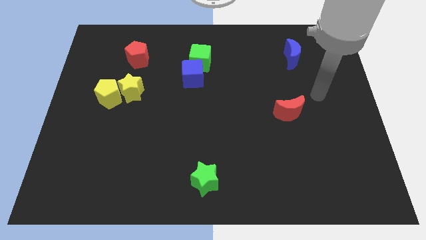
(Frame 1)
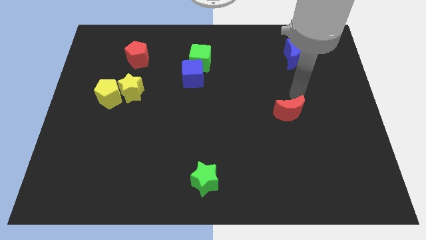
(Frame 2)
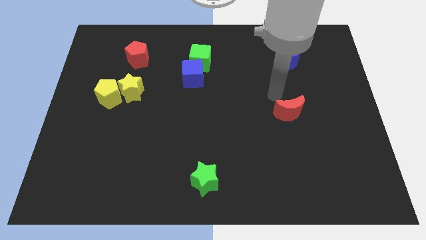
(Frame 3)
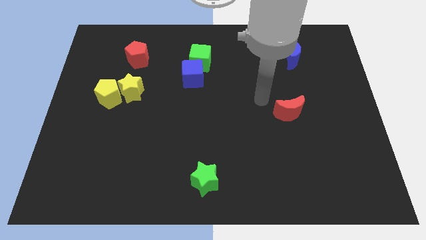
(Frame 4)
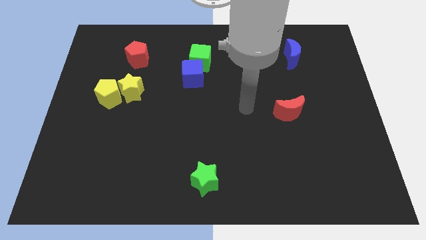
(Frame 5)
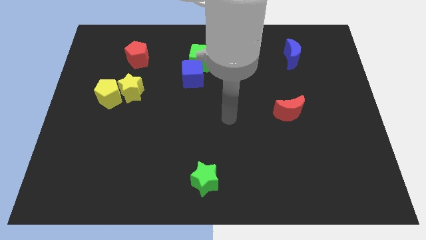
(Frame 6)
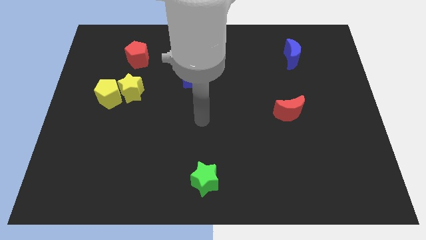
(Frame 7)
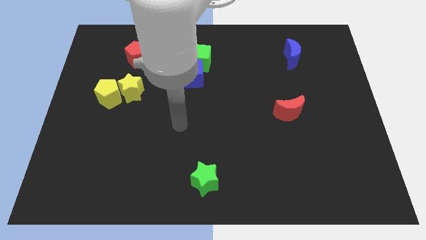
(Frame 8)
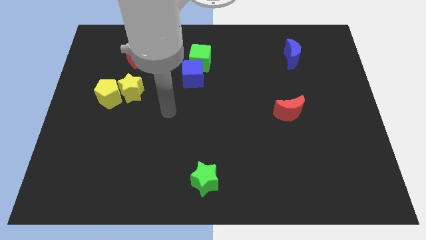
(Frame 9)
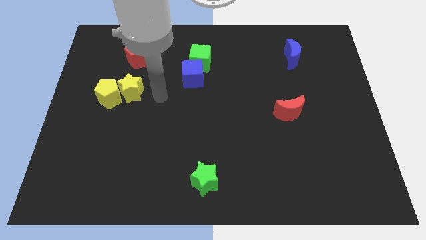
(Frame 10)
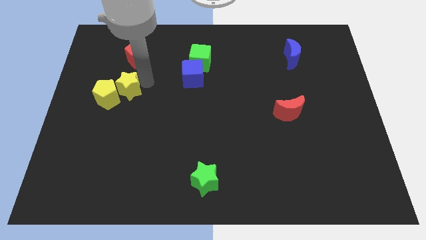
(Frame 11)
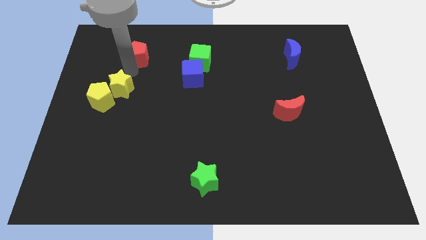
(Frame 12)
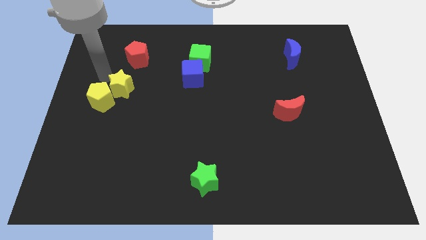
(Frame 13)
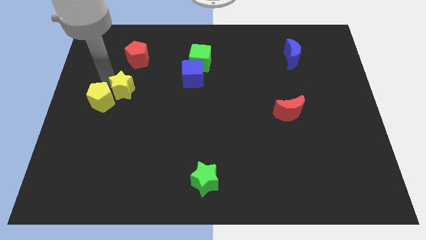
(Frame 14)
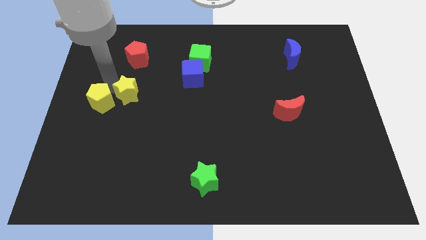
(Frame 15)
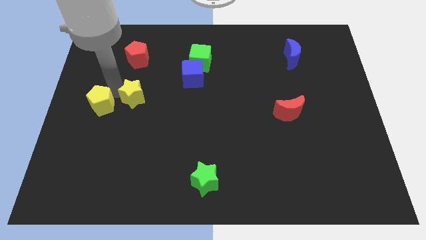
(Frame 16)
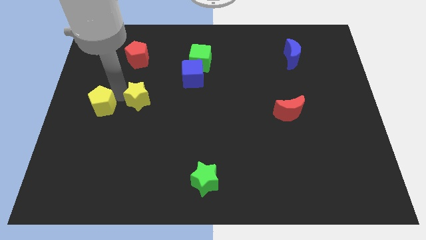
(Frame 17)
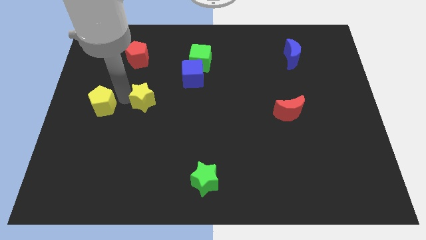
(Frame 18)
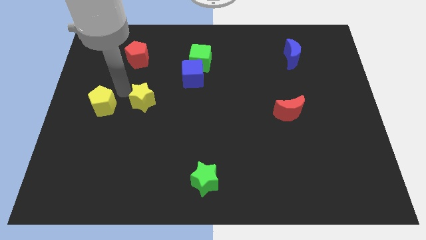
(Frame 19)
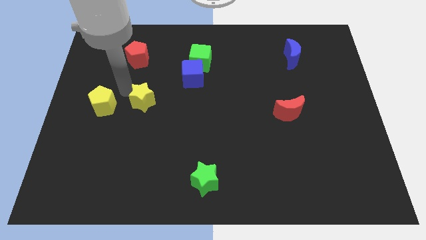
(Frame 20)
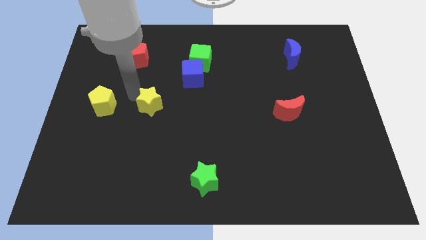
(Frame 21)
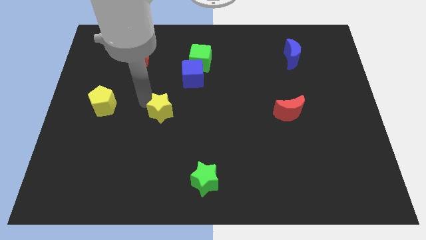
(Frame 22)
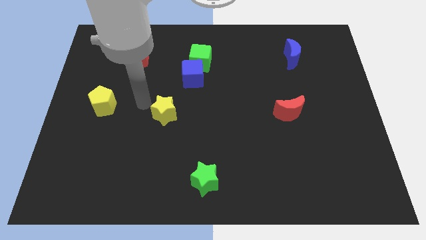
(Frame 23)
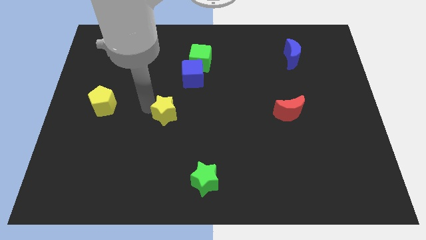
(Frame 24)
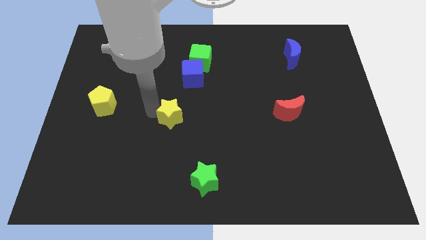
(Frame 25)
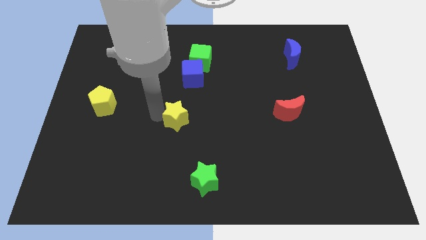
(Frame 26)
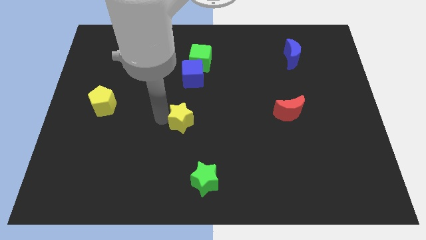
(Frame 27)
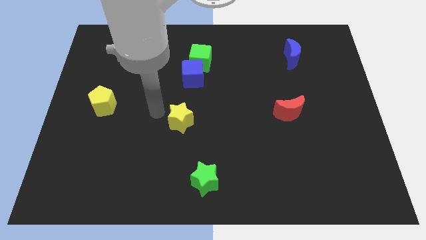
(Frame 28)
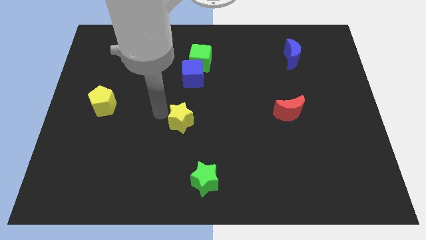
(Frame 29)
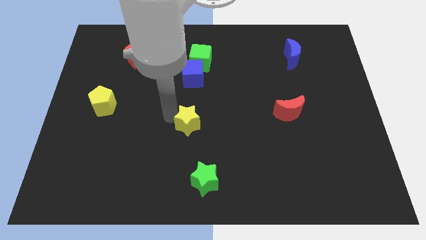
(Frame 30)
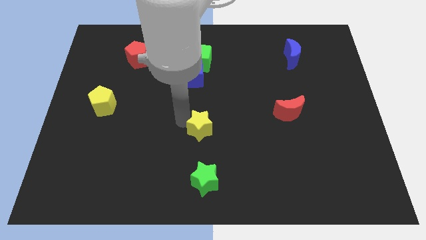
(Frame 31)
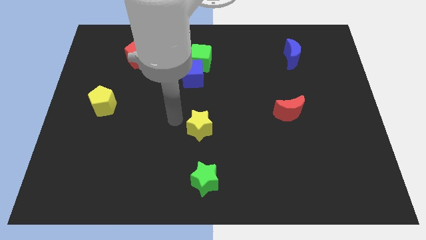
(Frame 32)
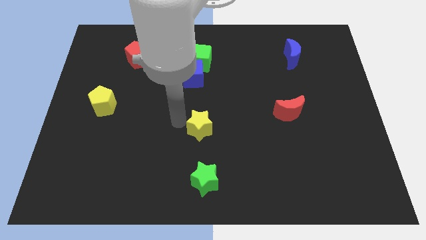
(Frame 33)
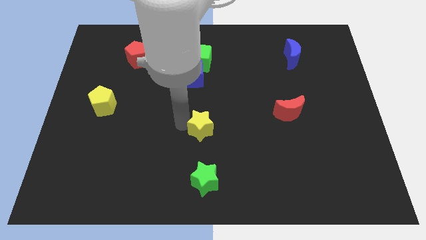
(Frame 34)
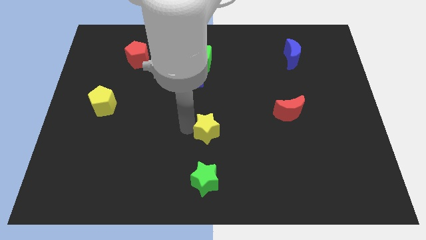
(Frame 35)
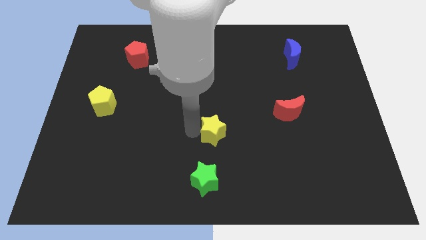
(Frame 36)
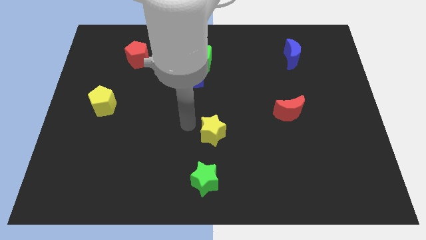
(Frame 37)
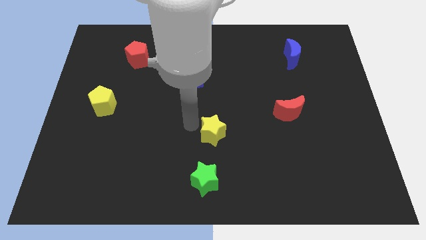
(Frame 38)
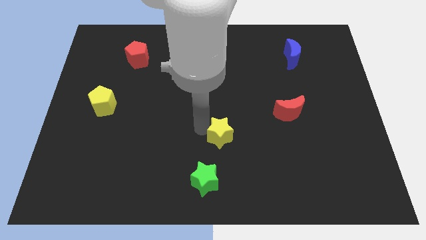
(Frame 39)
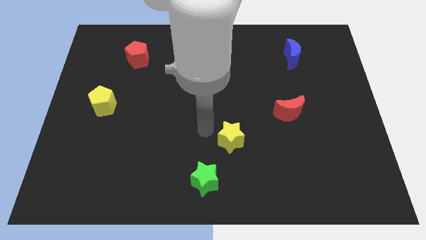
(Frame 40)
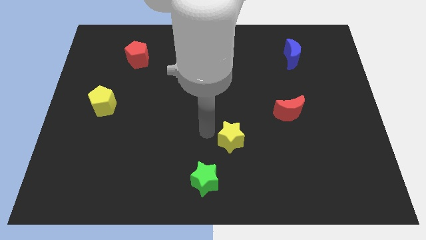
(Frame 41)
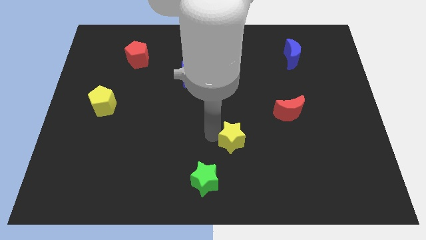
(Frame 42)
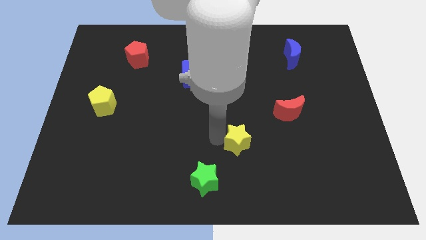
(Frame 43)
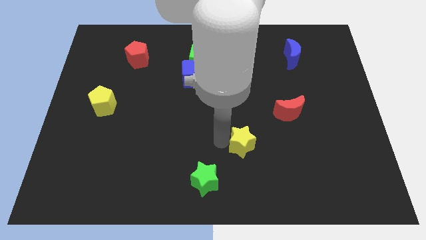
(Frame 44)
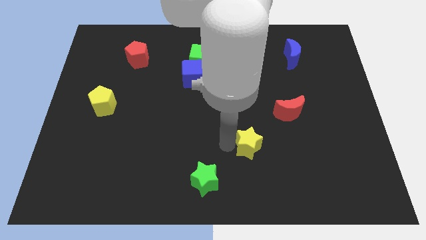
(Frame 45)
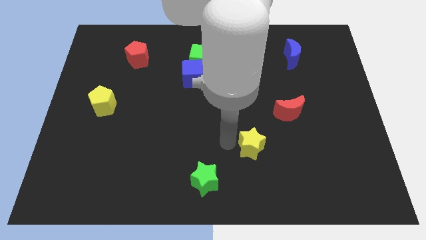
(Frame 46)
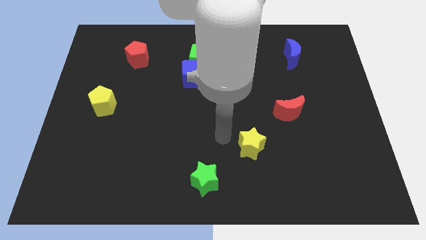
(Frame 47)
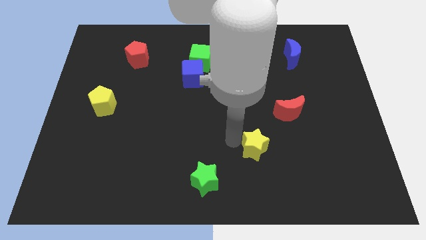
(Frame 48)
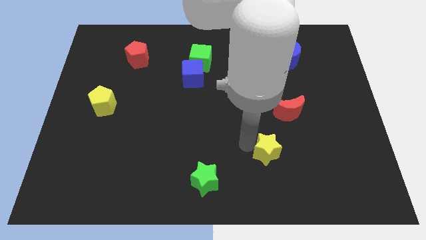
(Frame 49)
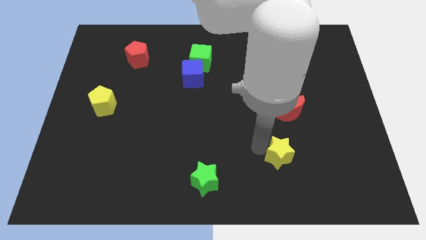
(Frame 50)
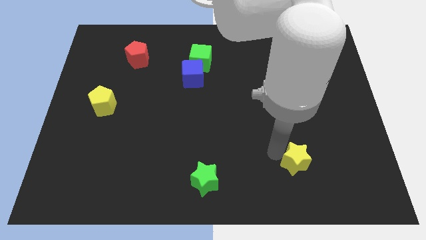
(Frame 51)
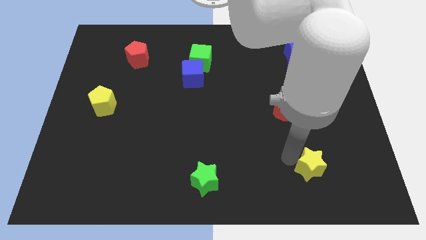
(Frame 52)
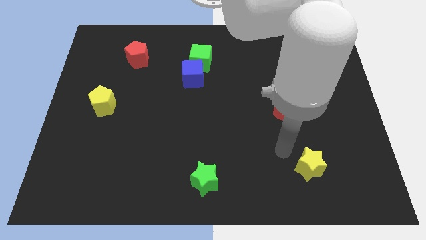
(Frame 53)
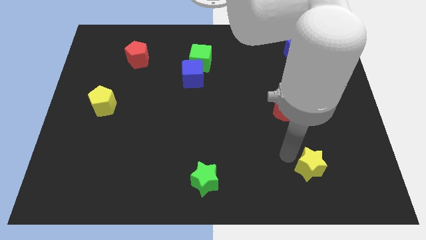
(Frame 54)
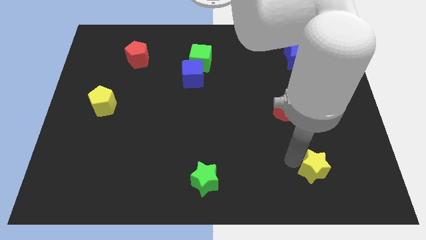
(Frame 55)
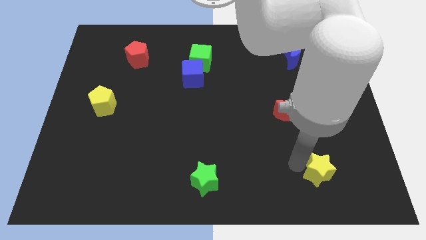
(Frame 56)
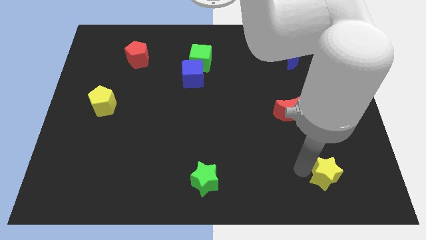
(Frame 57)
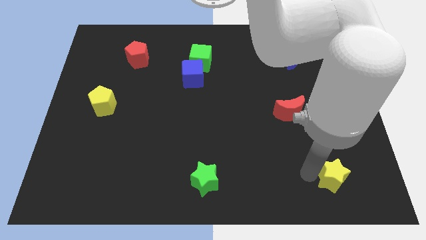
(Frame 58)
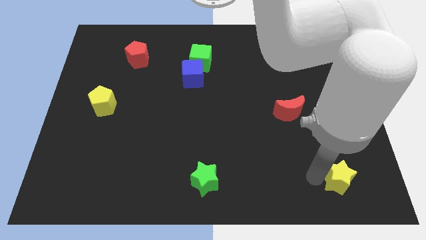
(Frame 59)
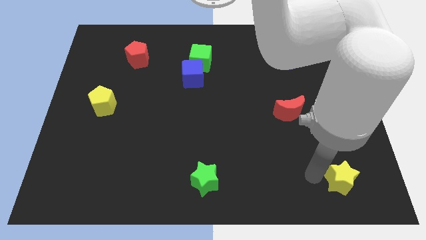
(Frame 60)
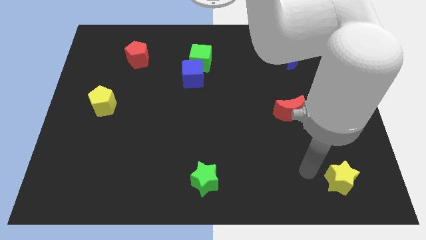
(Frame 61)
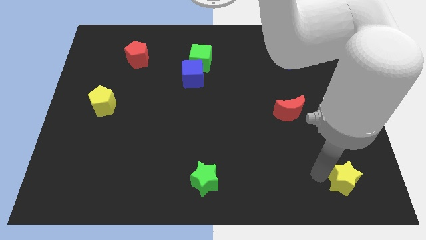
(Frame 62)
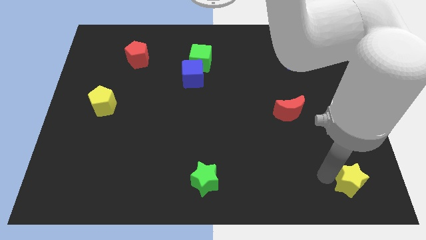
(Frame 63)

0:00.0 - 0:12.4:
put the yellow star to the lower right corner
